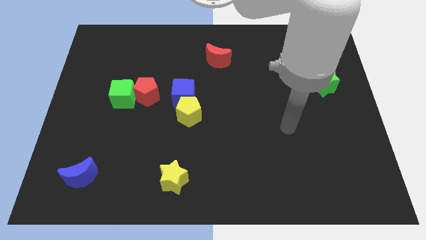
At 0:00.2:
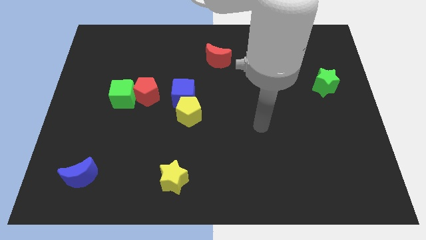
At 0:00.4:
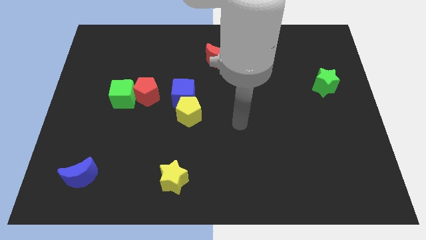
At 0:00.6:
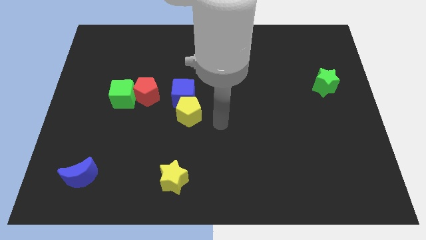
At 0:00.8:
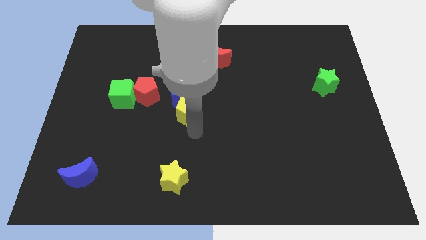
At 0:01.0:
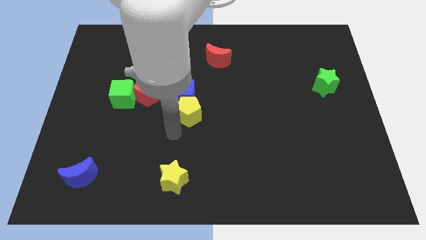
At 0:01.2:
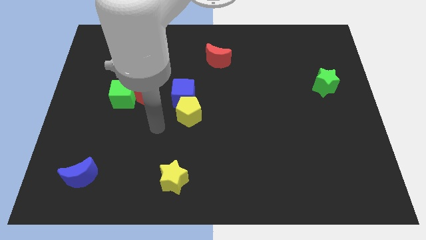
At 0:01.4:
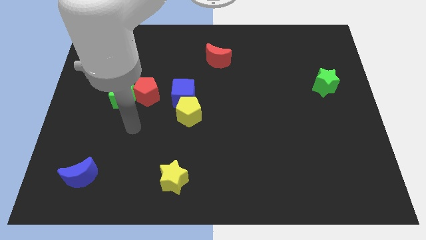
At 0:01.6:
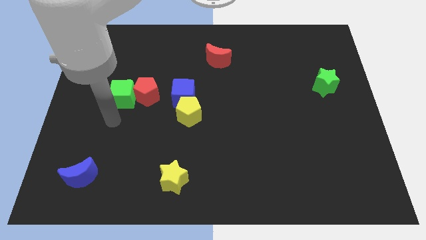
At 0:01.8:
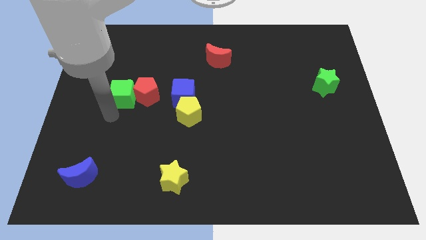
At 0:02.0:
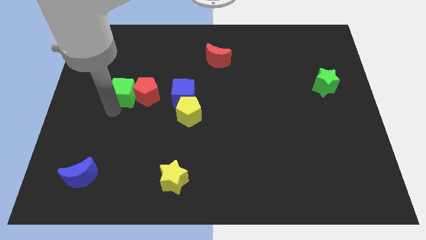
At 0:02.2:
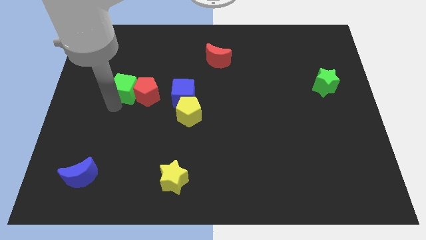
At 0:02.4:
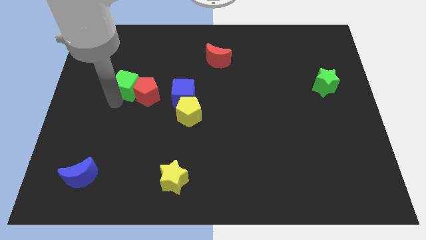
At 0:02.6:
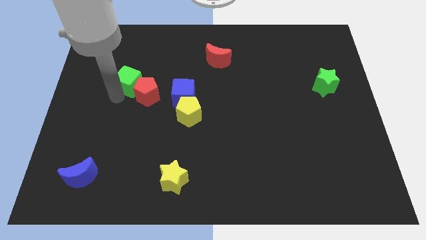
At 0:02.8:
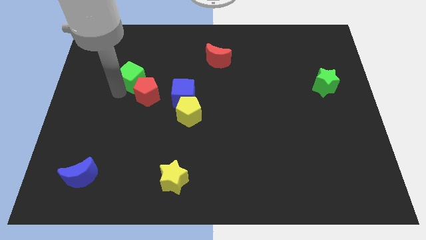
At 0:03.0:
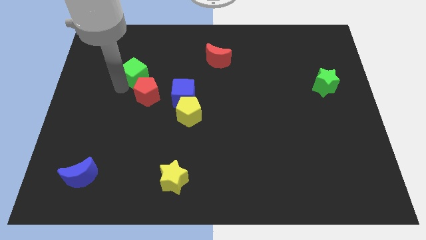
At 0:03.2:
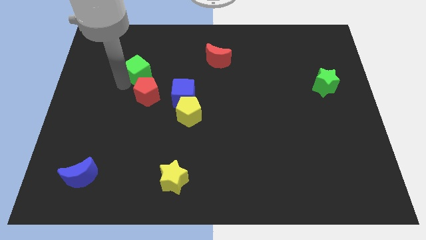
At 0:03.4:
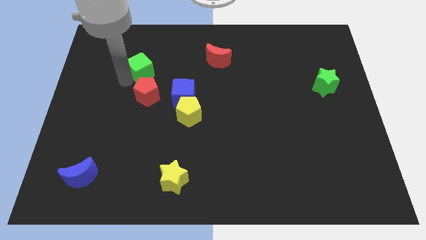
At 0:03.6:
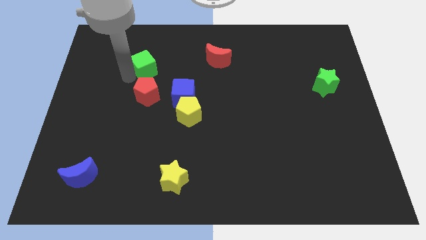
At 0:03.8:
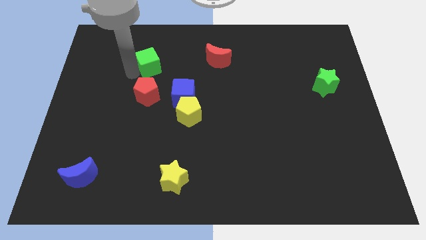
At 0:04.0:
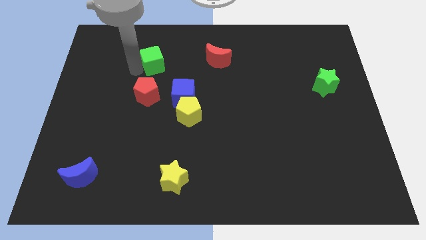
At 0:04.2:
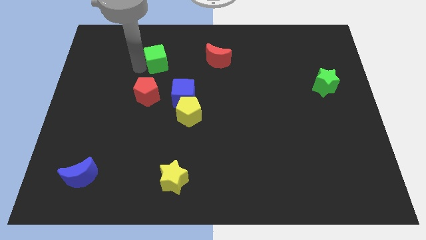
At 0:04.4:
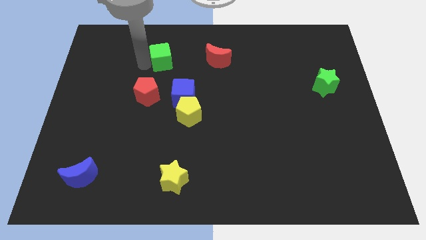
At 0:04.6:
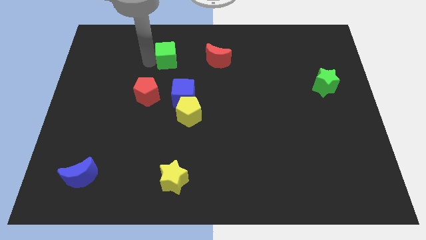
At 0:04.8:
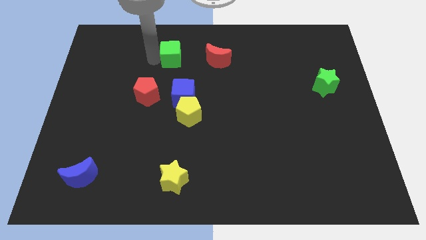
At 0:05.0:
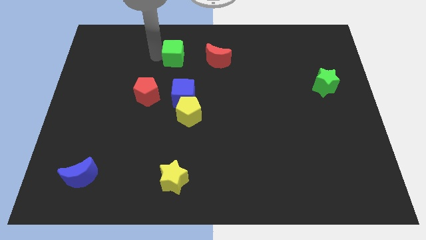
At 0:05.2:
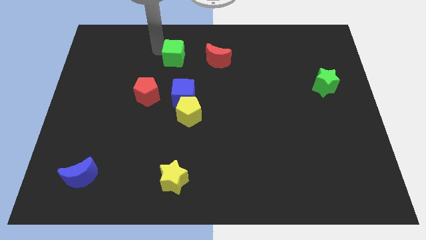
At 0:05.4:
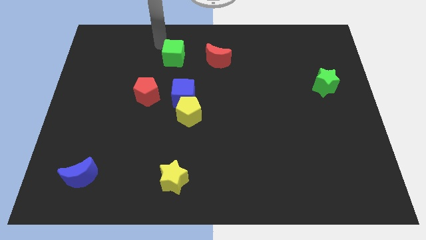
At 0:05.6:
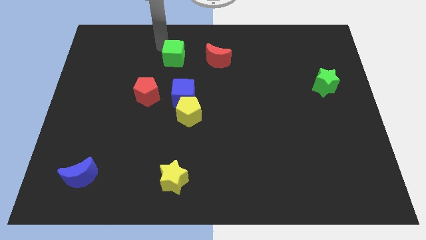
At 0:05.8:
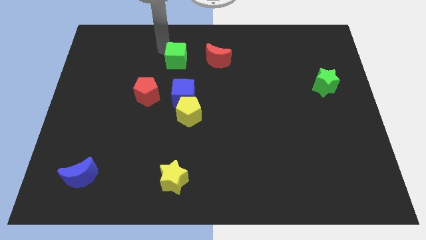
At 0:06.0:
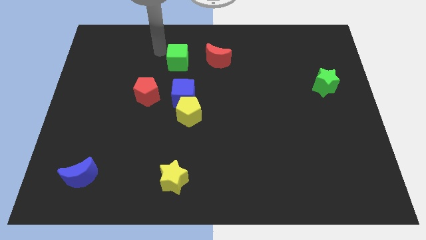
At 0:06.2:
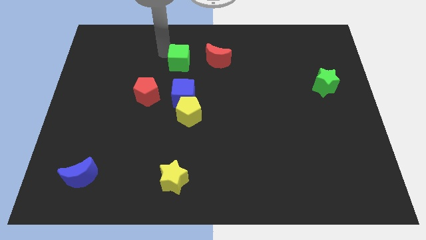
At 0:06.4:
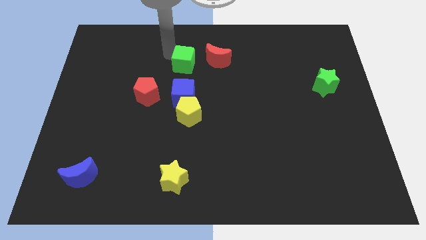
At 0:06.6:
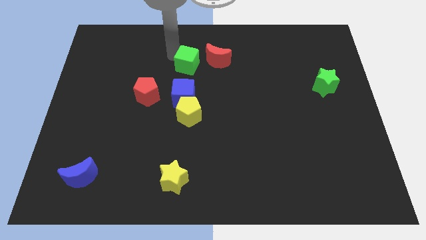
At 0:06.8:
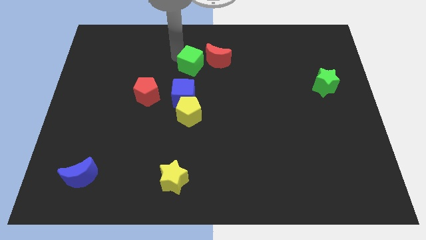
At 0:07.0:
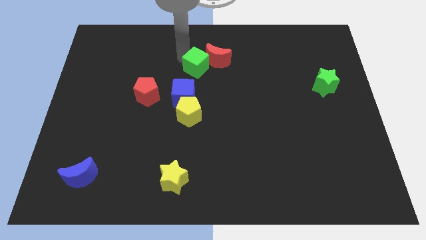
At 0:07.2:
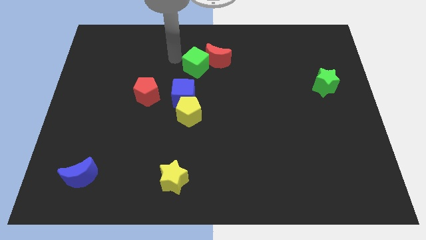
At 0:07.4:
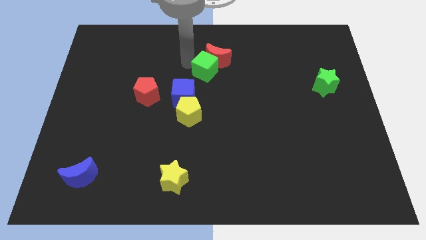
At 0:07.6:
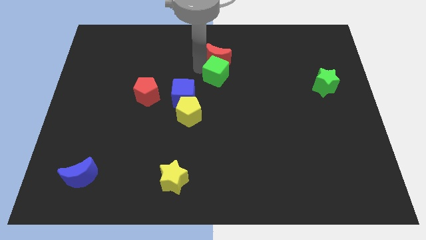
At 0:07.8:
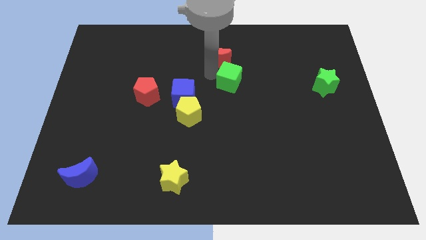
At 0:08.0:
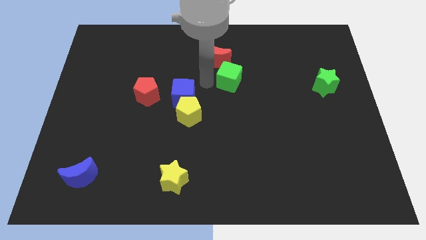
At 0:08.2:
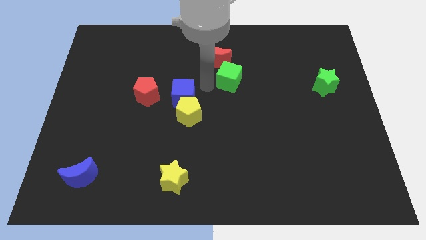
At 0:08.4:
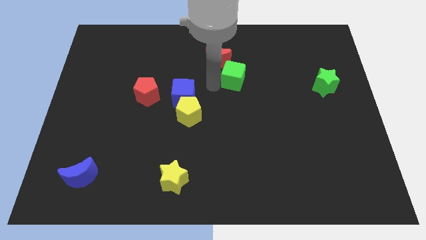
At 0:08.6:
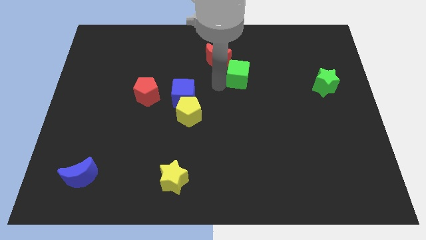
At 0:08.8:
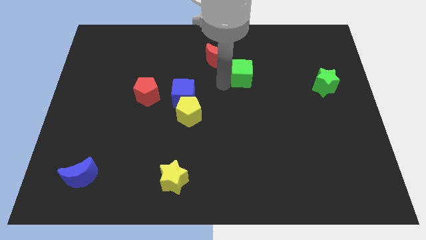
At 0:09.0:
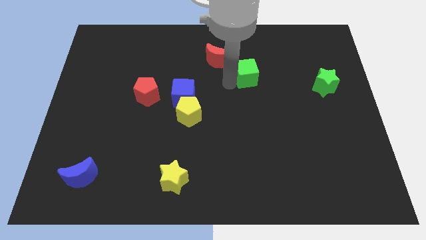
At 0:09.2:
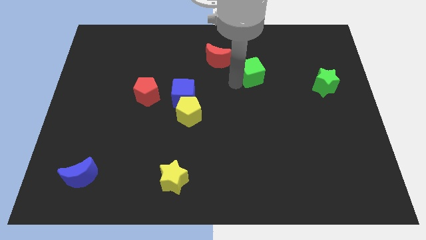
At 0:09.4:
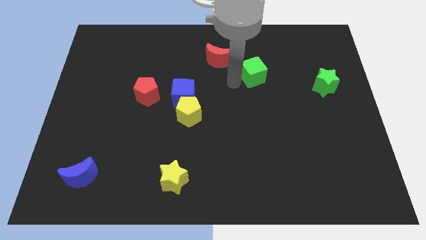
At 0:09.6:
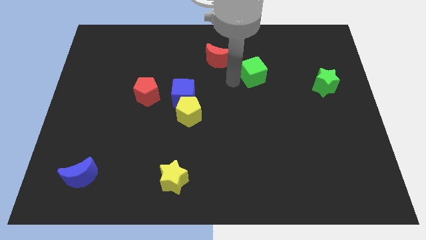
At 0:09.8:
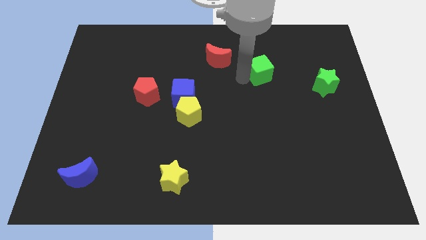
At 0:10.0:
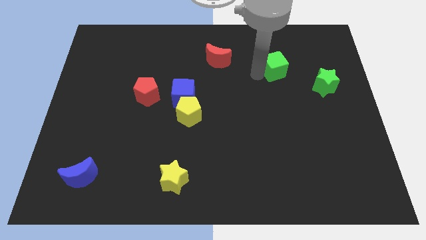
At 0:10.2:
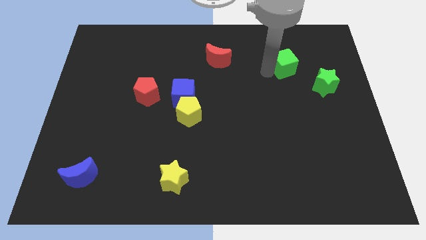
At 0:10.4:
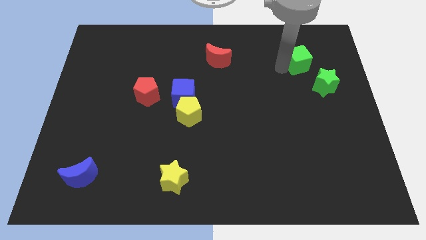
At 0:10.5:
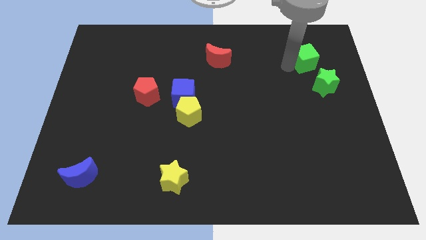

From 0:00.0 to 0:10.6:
put the green cube to the top of the green star

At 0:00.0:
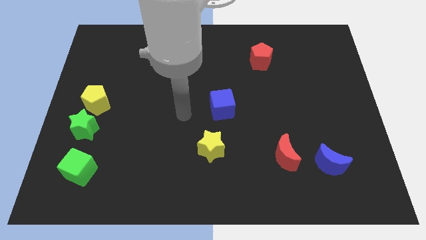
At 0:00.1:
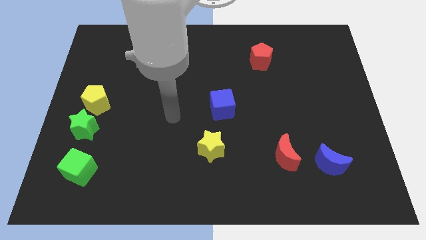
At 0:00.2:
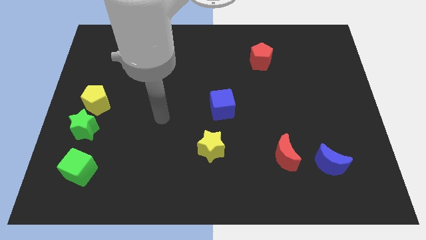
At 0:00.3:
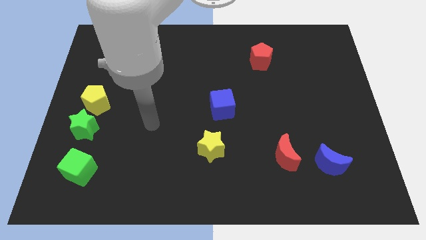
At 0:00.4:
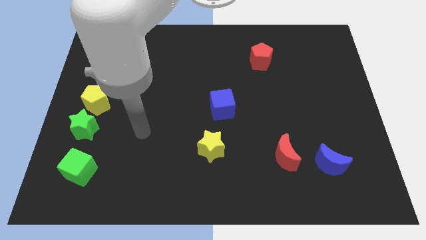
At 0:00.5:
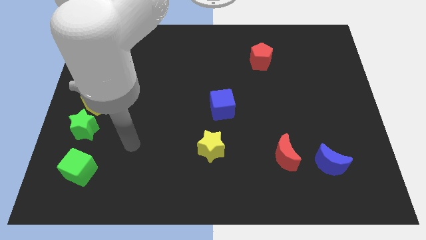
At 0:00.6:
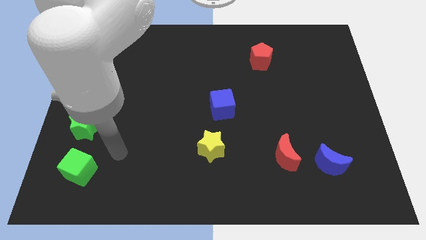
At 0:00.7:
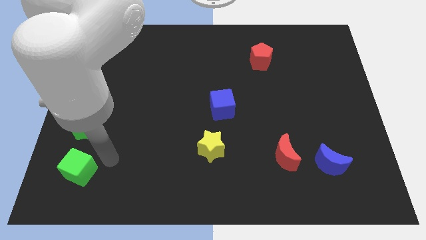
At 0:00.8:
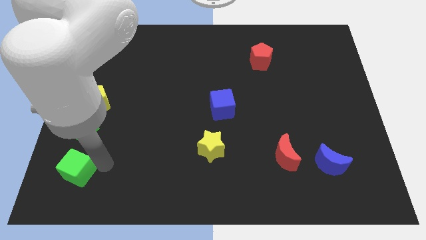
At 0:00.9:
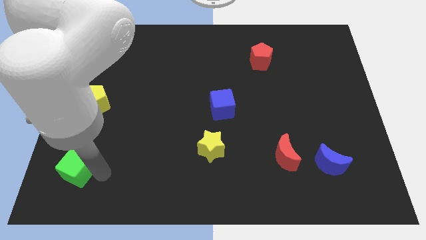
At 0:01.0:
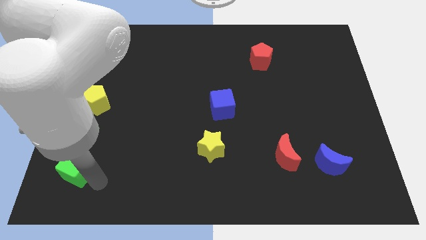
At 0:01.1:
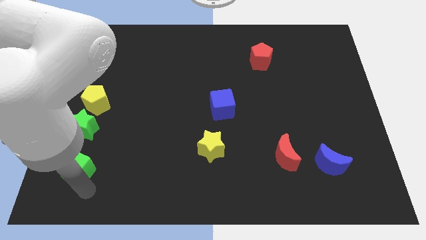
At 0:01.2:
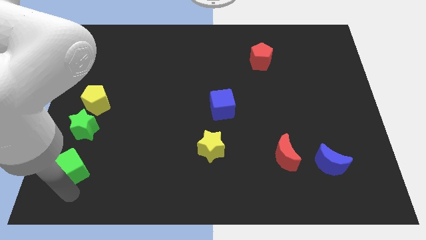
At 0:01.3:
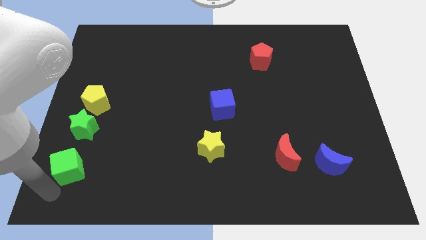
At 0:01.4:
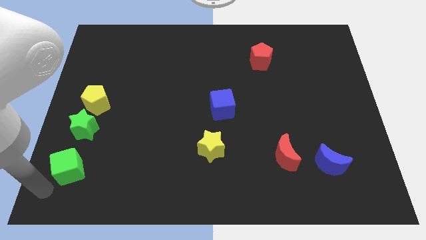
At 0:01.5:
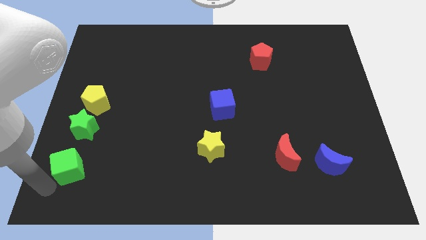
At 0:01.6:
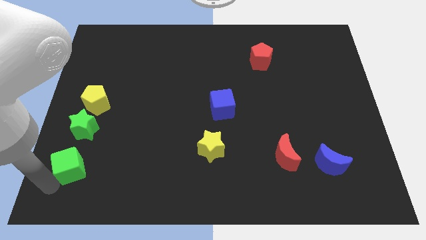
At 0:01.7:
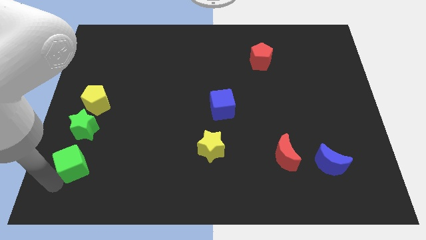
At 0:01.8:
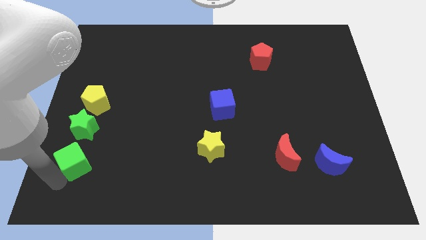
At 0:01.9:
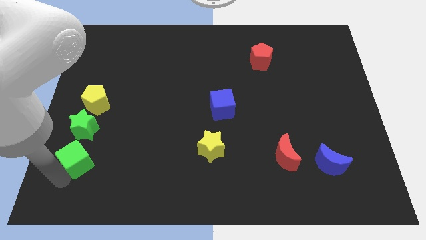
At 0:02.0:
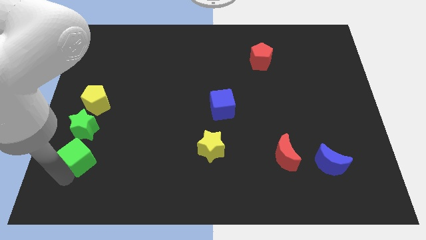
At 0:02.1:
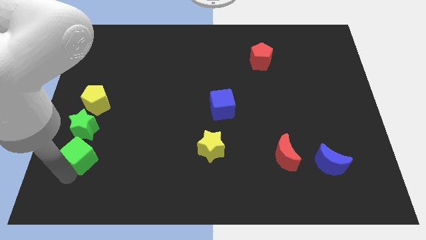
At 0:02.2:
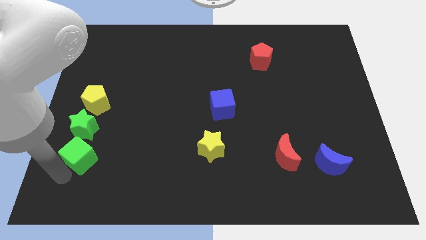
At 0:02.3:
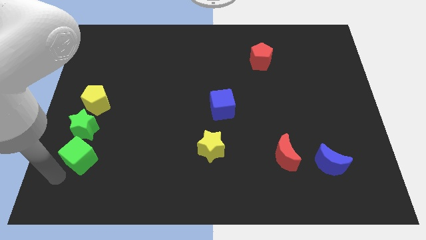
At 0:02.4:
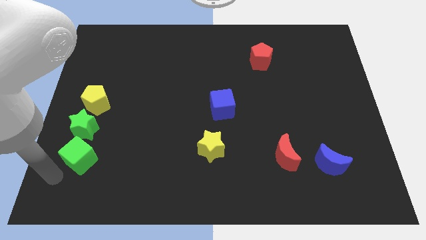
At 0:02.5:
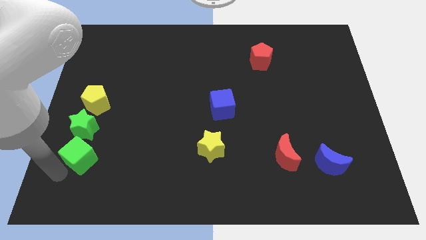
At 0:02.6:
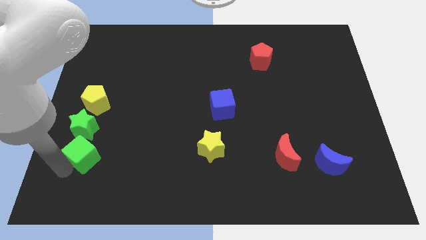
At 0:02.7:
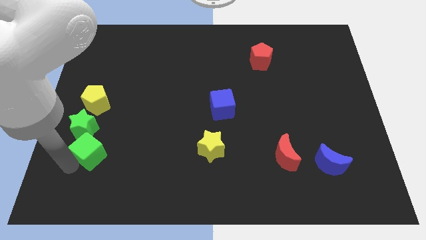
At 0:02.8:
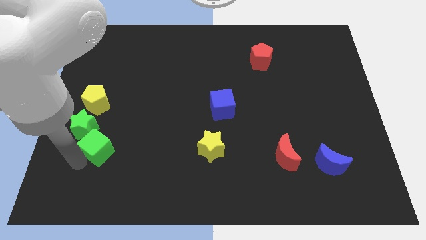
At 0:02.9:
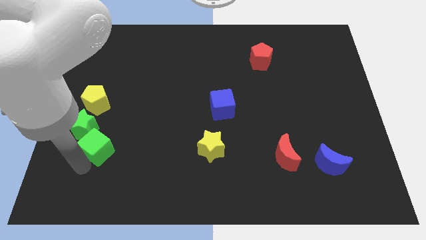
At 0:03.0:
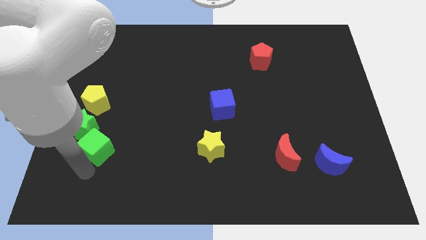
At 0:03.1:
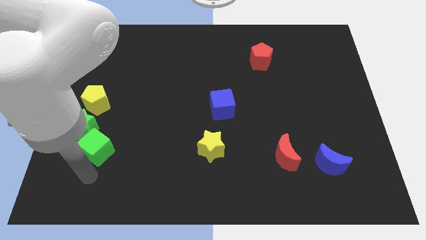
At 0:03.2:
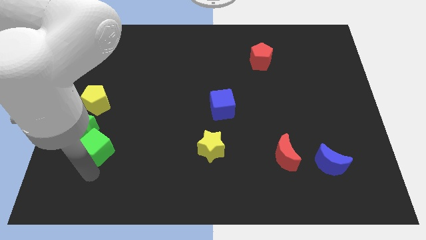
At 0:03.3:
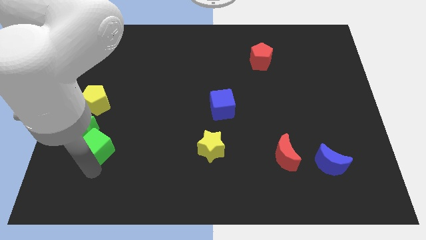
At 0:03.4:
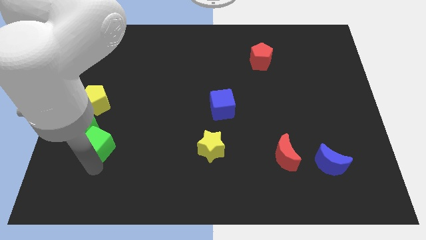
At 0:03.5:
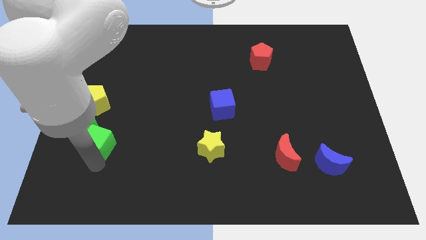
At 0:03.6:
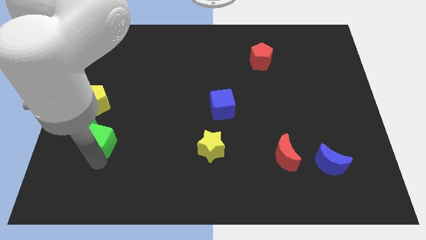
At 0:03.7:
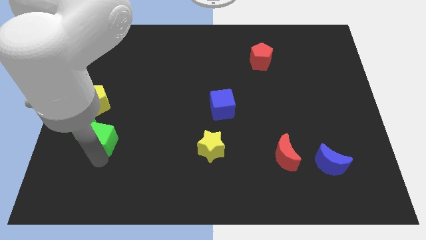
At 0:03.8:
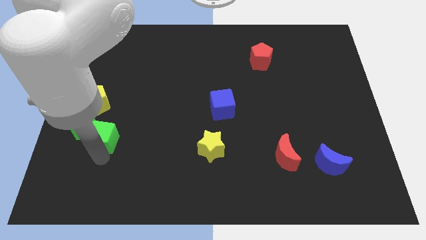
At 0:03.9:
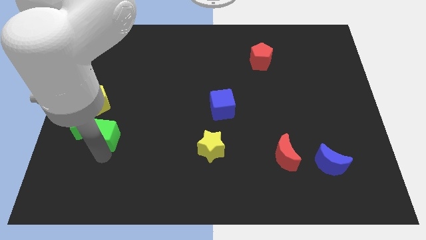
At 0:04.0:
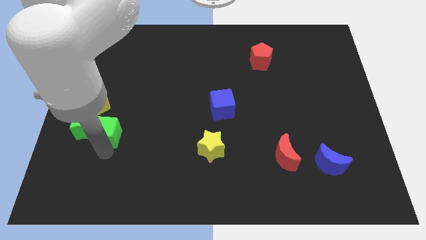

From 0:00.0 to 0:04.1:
put the green cube diagonally up and to the right of the green star
